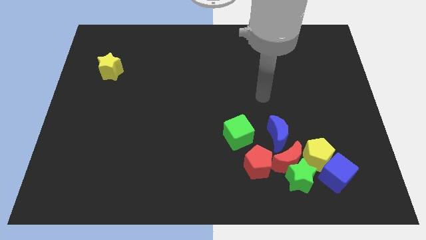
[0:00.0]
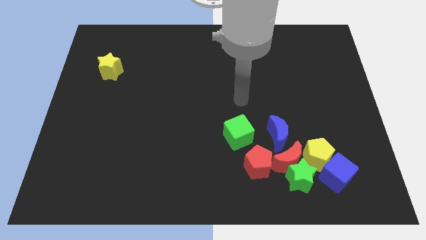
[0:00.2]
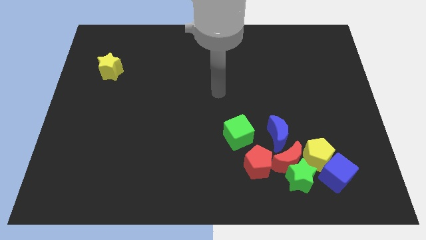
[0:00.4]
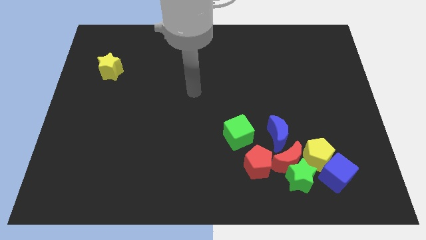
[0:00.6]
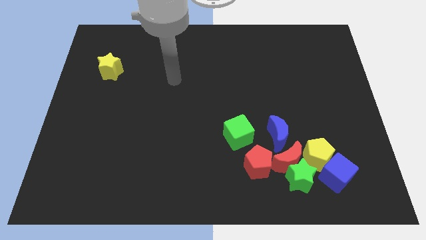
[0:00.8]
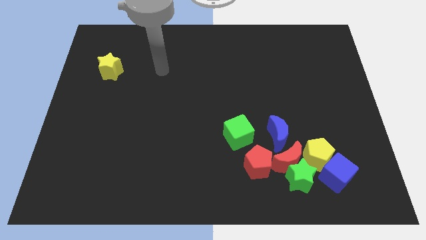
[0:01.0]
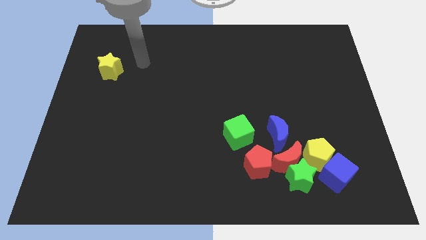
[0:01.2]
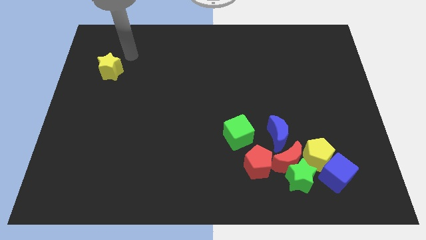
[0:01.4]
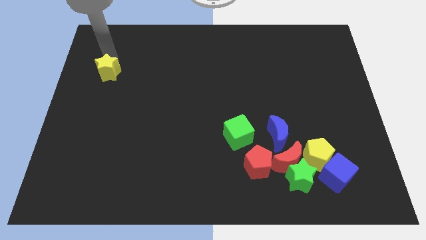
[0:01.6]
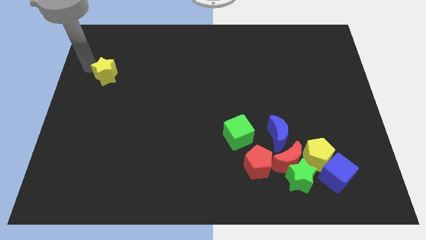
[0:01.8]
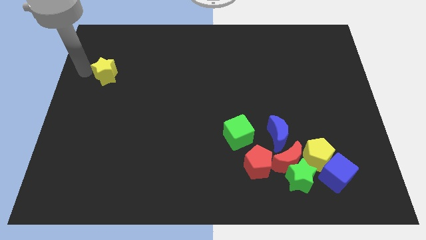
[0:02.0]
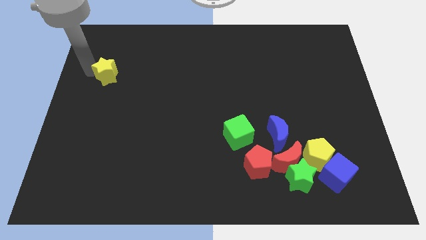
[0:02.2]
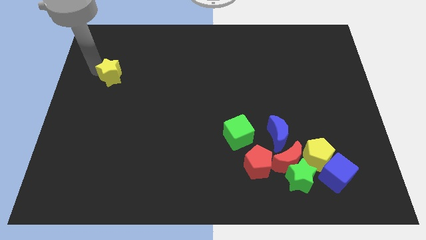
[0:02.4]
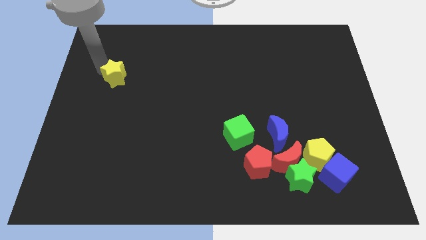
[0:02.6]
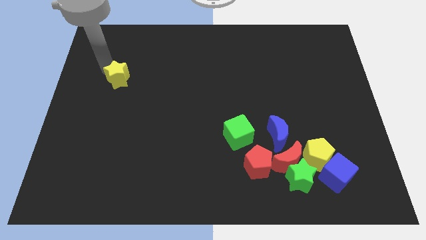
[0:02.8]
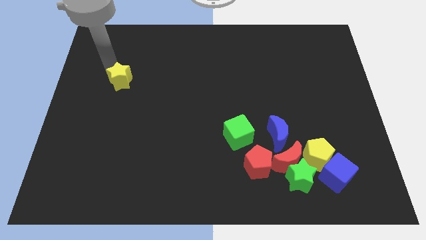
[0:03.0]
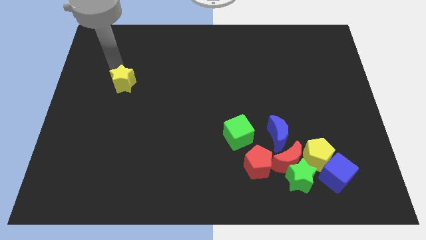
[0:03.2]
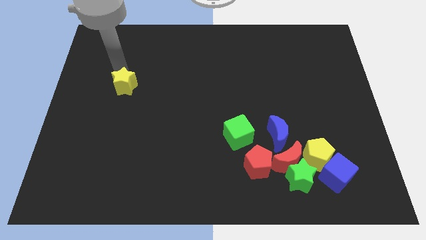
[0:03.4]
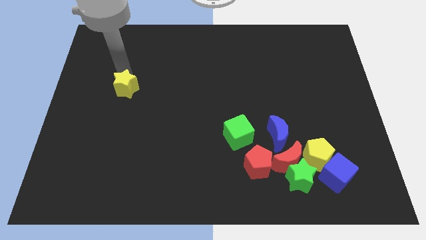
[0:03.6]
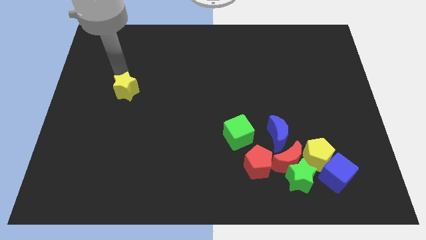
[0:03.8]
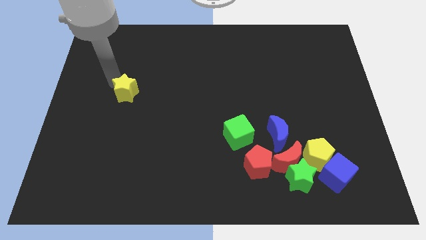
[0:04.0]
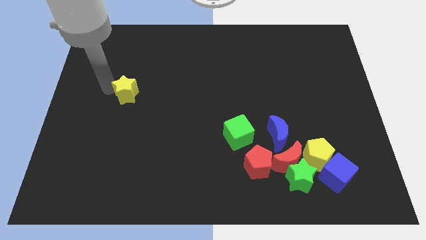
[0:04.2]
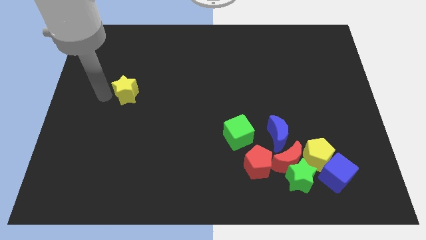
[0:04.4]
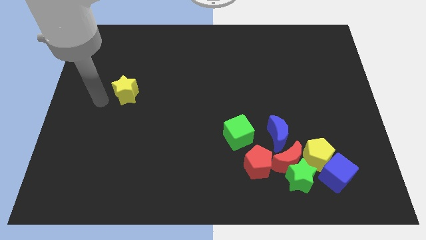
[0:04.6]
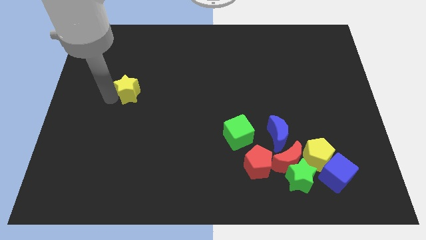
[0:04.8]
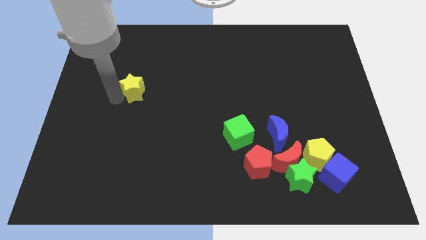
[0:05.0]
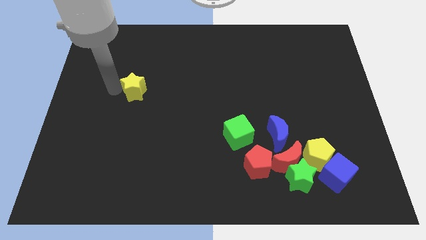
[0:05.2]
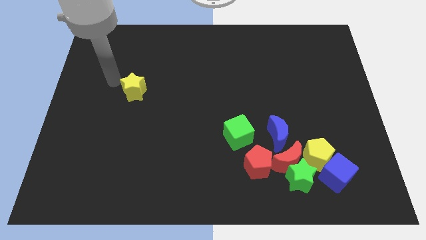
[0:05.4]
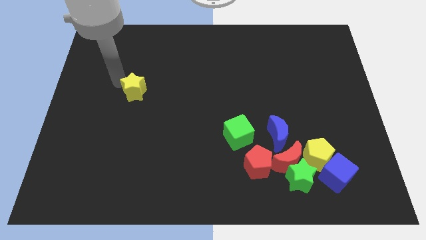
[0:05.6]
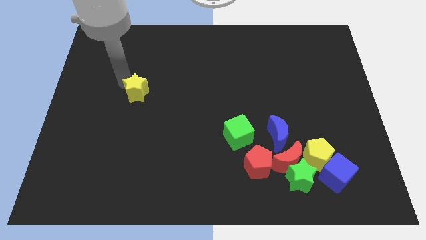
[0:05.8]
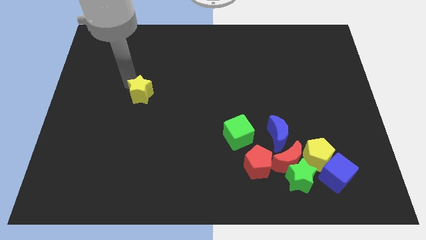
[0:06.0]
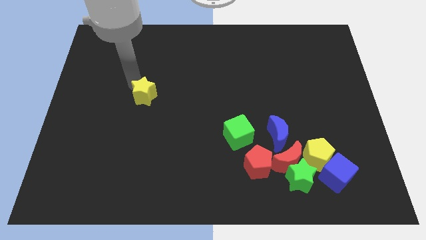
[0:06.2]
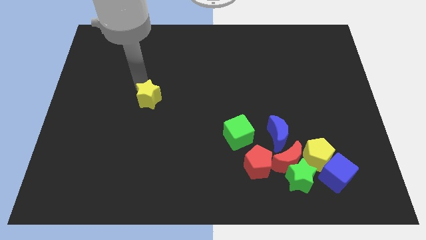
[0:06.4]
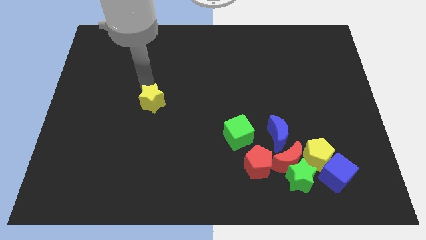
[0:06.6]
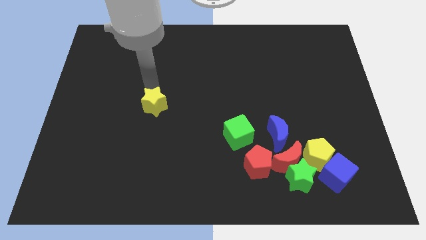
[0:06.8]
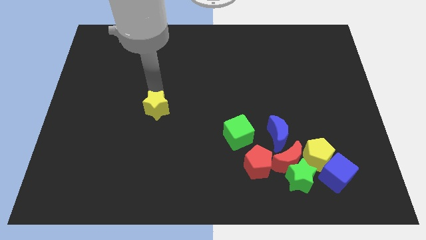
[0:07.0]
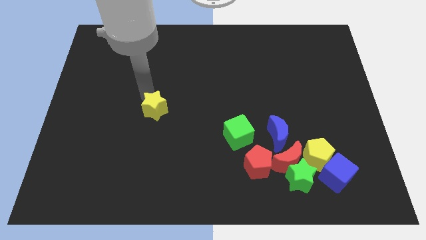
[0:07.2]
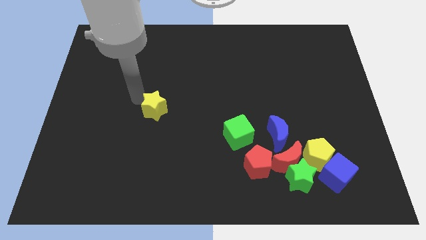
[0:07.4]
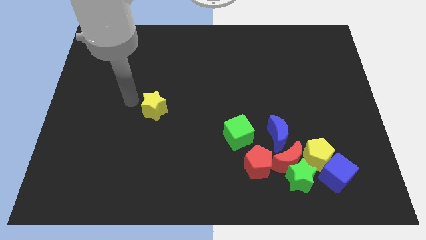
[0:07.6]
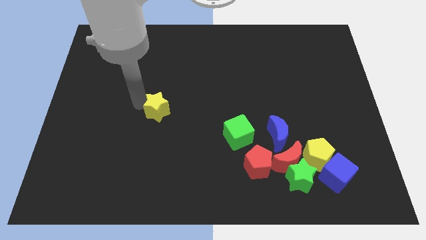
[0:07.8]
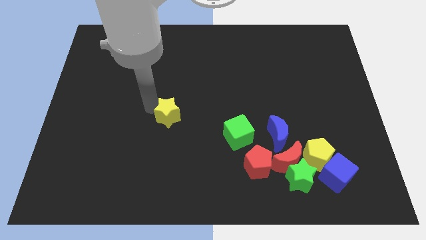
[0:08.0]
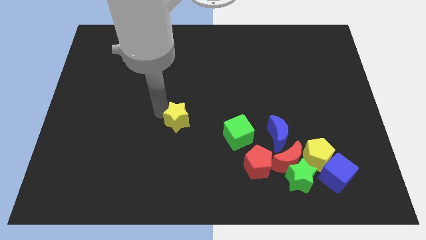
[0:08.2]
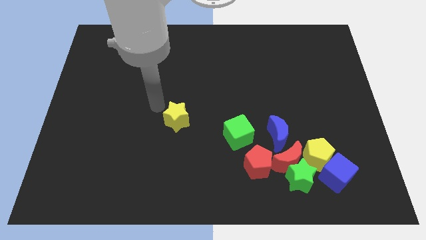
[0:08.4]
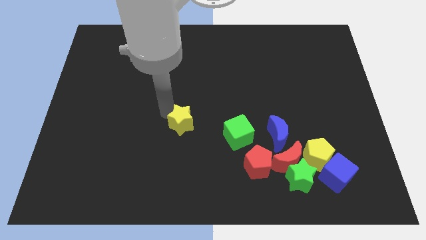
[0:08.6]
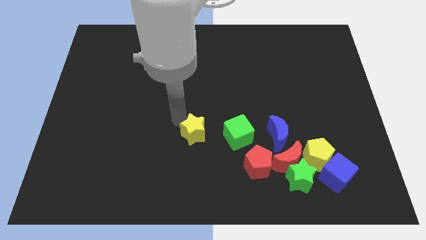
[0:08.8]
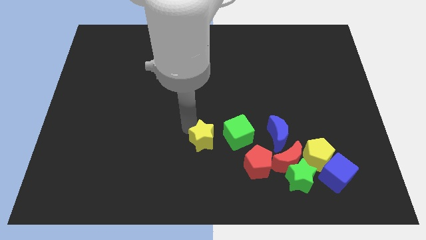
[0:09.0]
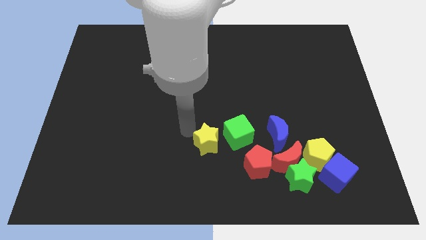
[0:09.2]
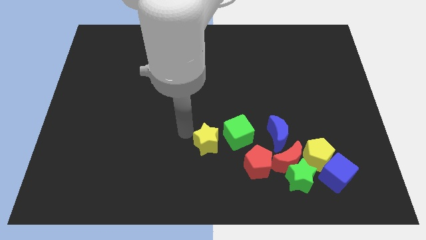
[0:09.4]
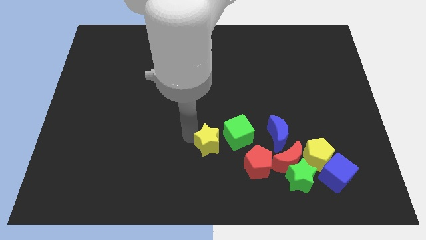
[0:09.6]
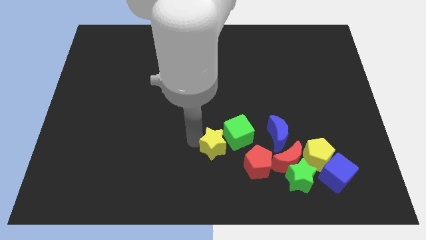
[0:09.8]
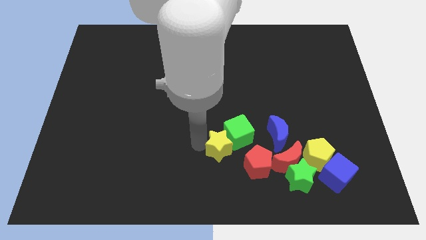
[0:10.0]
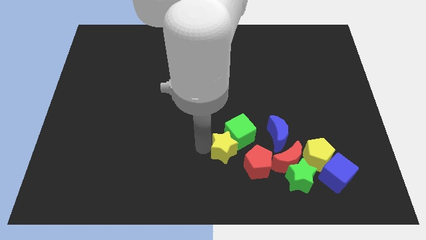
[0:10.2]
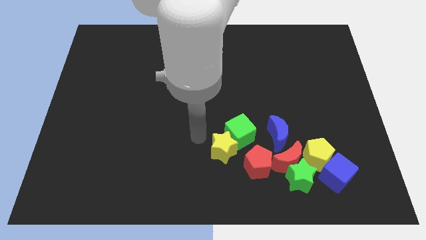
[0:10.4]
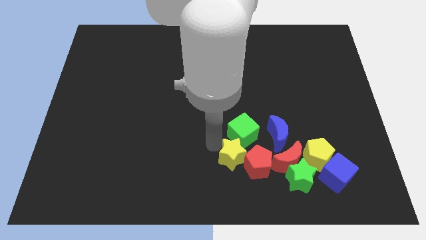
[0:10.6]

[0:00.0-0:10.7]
slide the yellow star close to the red pentagon

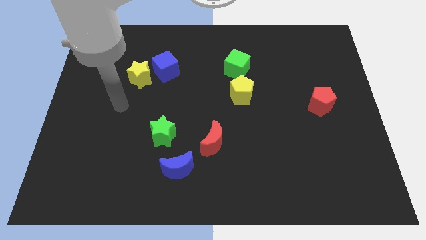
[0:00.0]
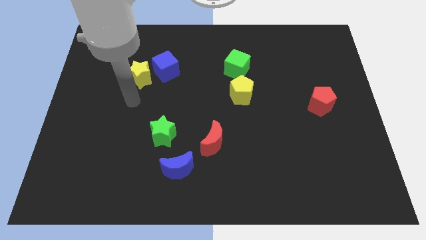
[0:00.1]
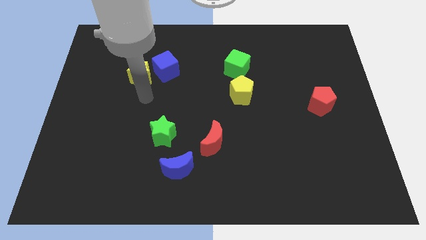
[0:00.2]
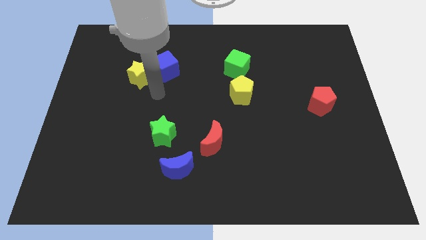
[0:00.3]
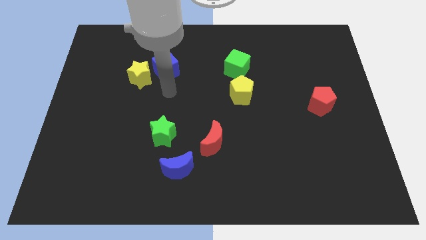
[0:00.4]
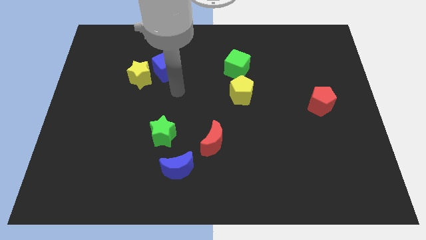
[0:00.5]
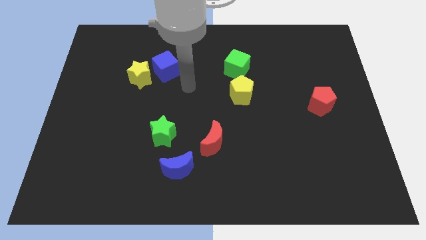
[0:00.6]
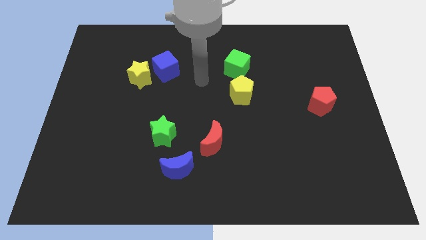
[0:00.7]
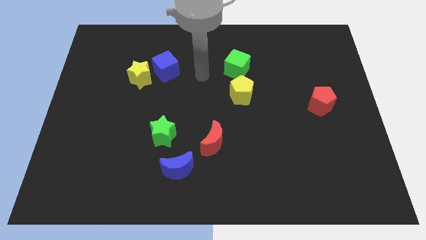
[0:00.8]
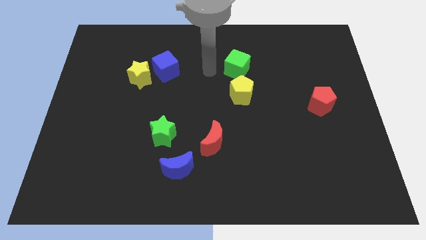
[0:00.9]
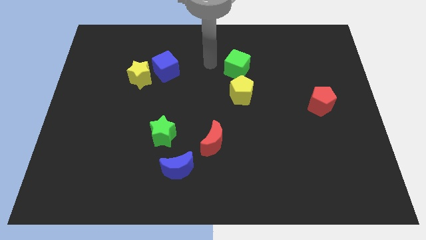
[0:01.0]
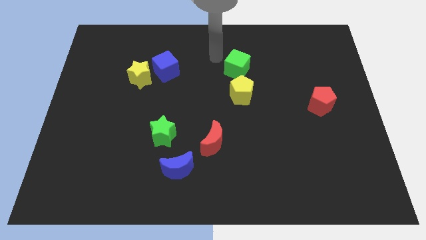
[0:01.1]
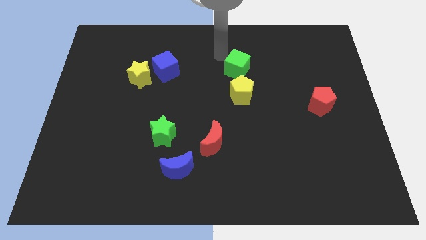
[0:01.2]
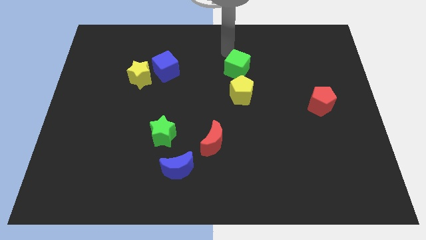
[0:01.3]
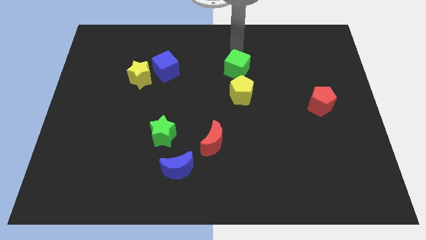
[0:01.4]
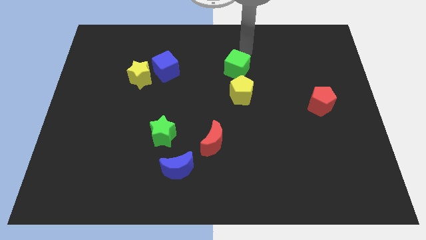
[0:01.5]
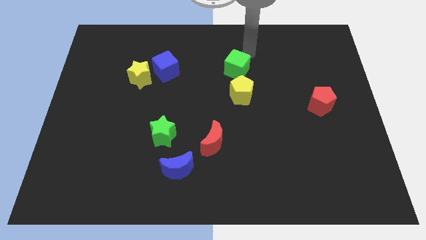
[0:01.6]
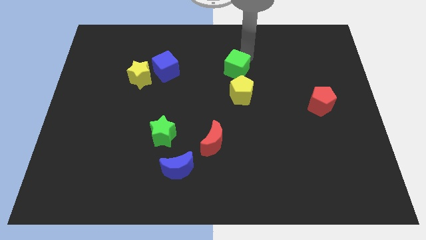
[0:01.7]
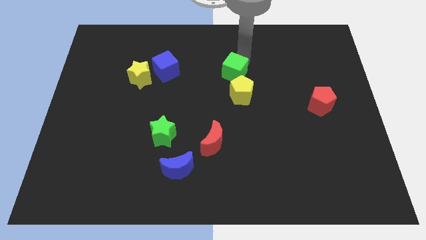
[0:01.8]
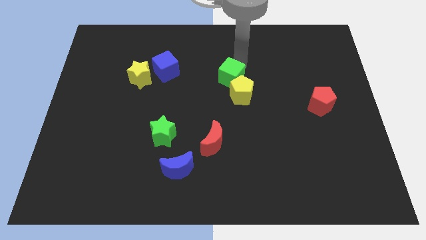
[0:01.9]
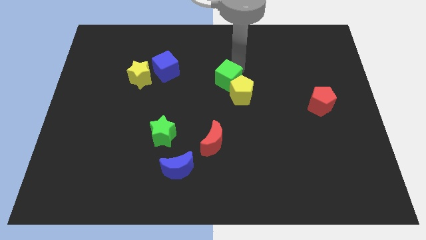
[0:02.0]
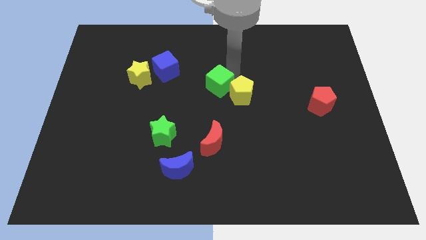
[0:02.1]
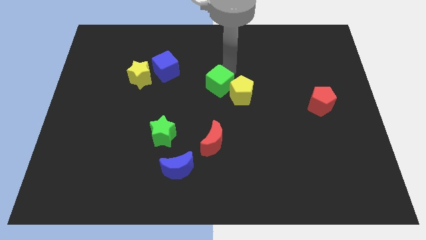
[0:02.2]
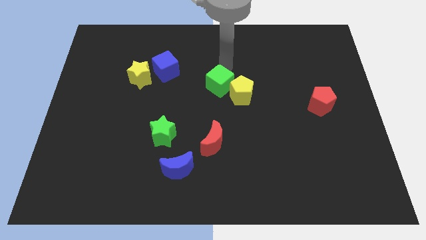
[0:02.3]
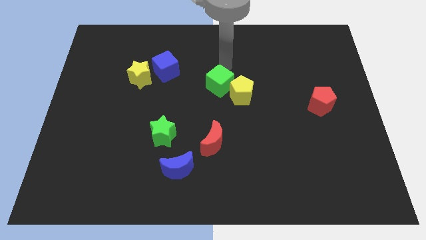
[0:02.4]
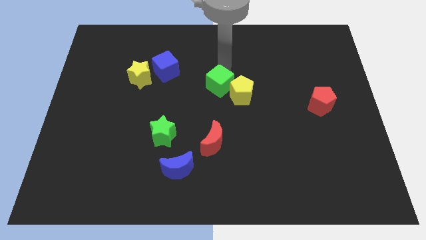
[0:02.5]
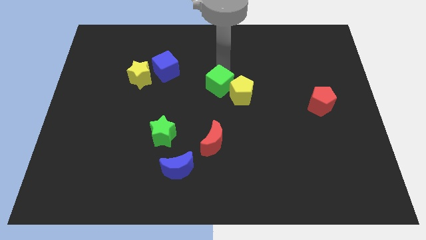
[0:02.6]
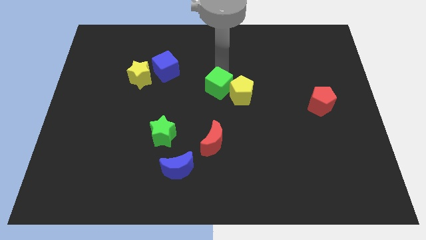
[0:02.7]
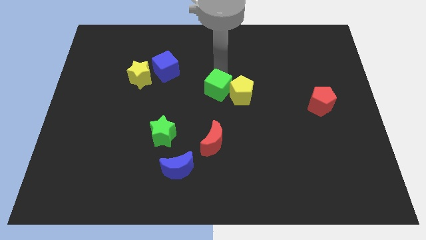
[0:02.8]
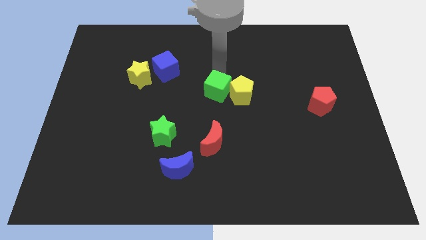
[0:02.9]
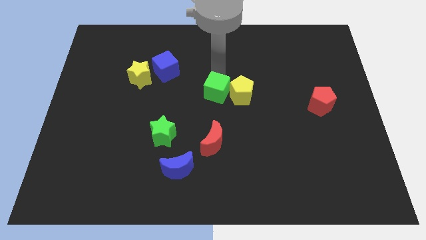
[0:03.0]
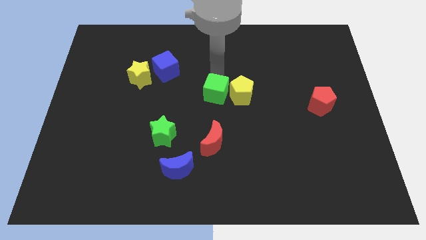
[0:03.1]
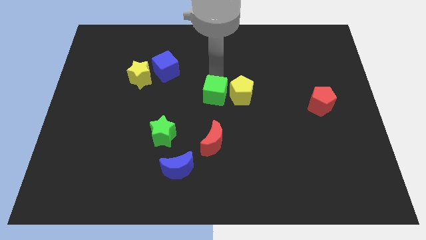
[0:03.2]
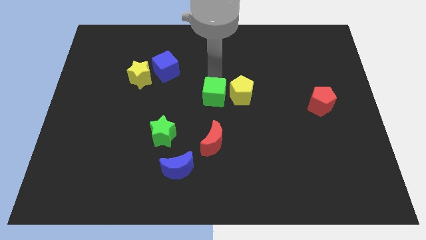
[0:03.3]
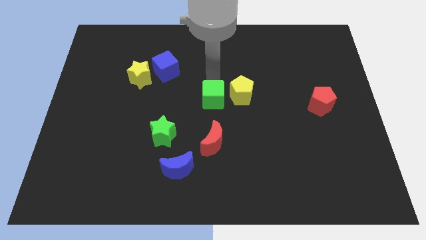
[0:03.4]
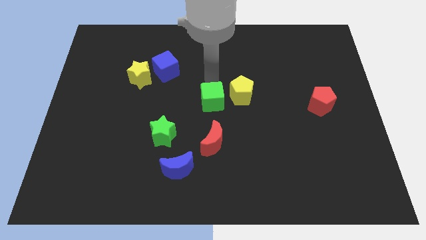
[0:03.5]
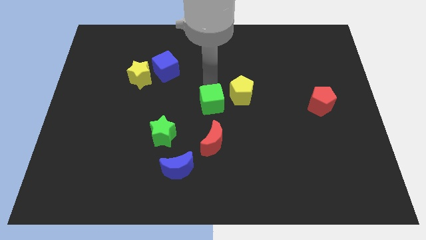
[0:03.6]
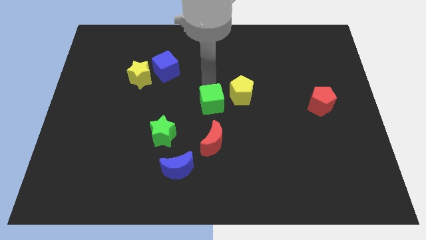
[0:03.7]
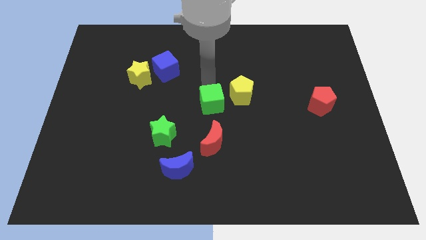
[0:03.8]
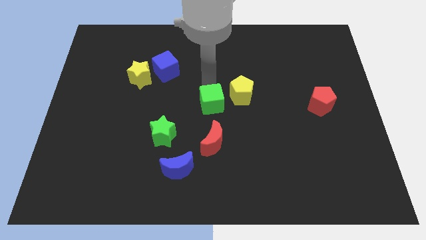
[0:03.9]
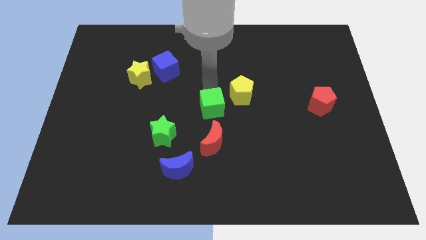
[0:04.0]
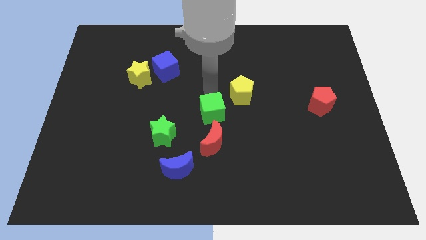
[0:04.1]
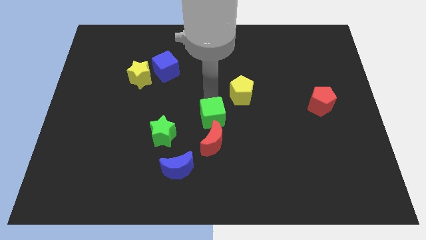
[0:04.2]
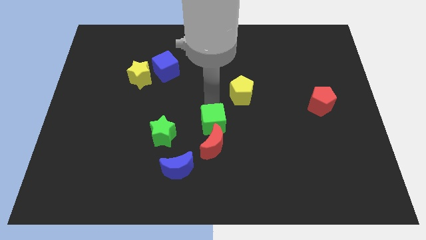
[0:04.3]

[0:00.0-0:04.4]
move the green cube towards the red moon
